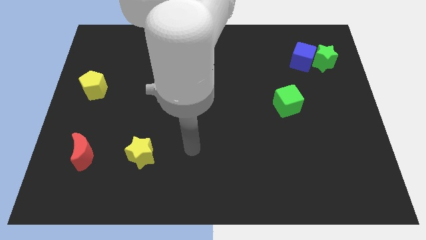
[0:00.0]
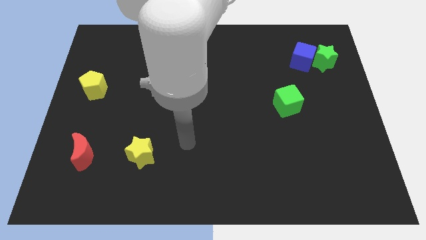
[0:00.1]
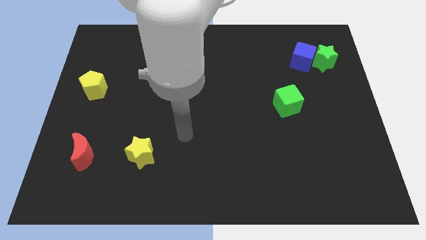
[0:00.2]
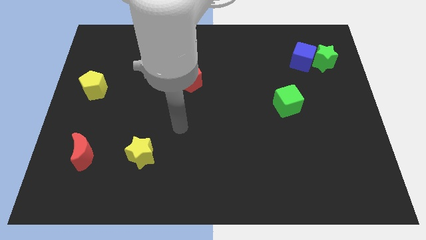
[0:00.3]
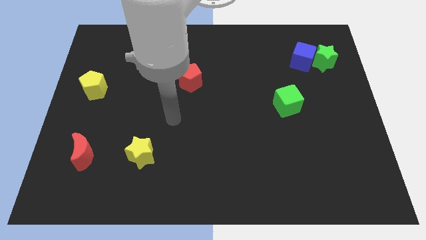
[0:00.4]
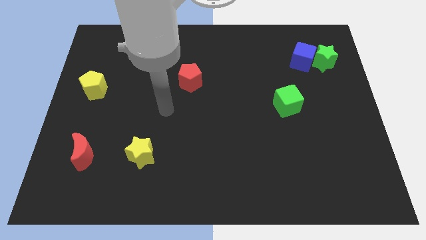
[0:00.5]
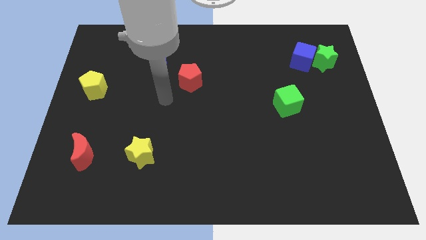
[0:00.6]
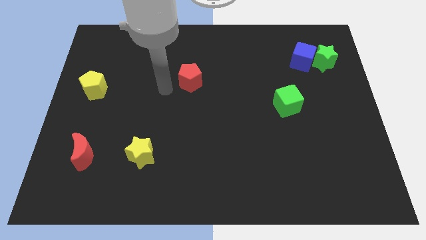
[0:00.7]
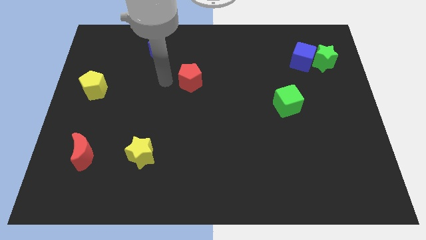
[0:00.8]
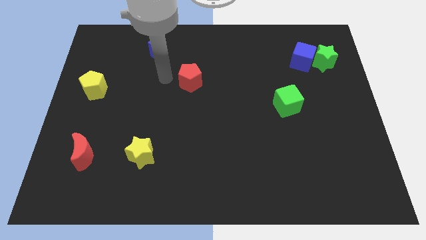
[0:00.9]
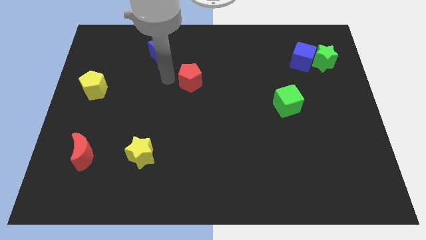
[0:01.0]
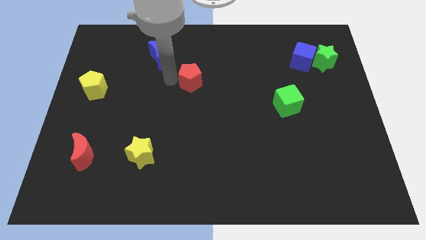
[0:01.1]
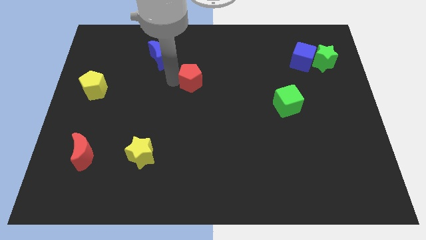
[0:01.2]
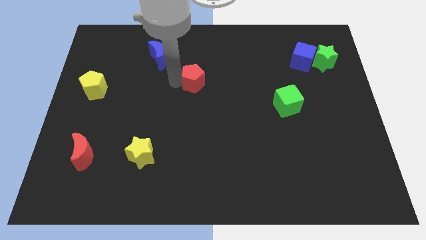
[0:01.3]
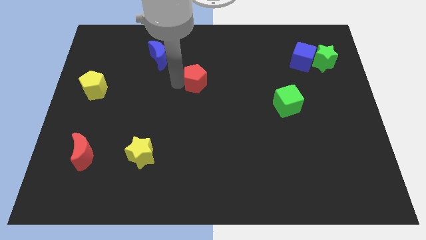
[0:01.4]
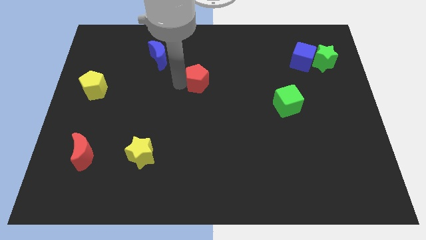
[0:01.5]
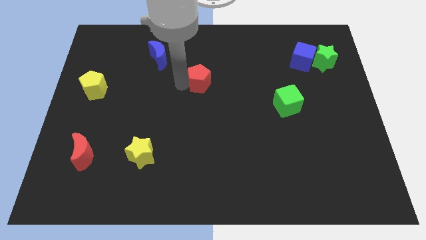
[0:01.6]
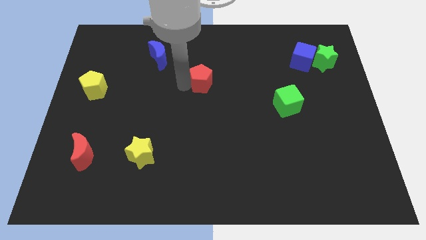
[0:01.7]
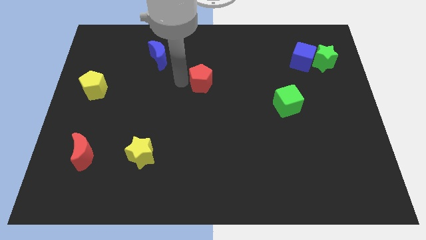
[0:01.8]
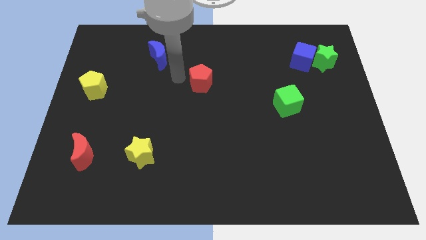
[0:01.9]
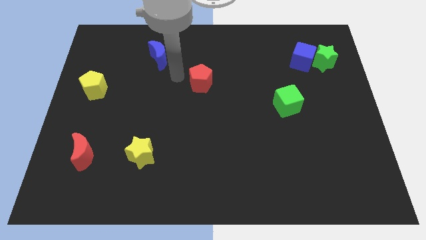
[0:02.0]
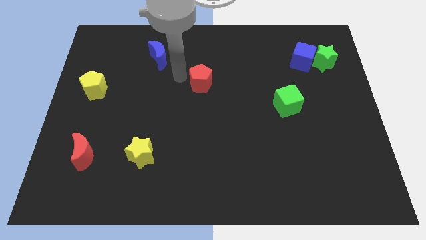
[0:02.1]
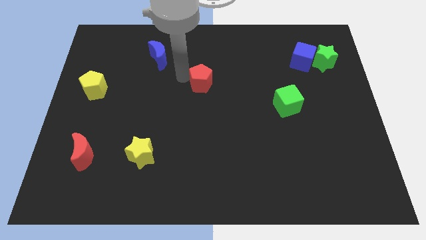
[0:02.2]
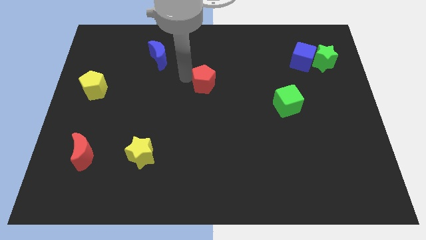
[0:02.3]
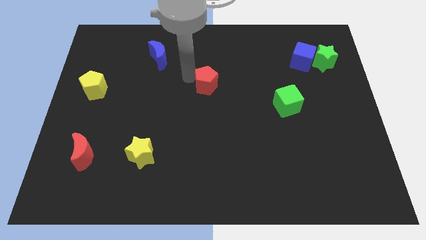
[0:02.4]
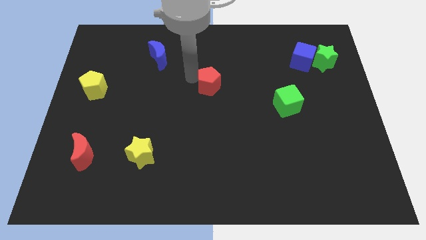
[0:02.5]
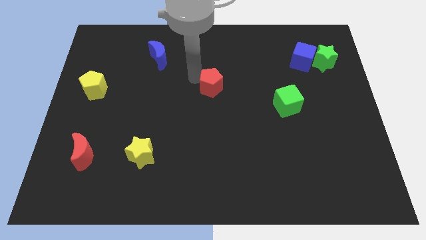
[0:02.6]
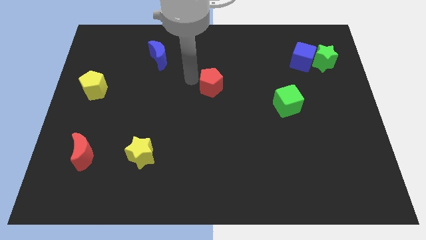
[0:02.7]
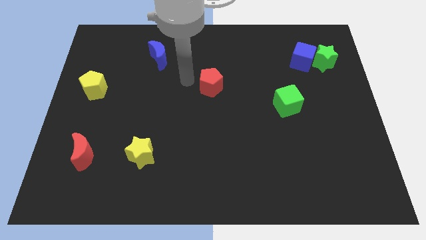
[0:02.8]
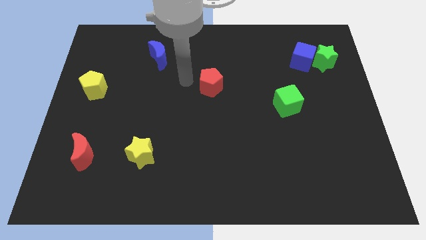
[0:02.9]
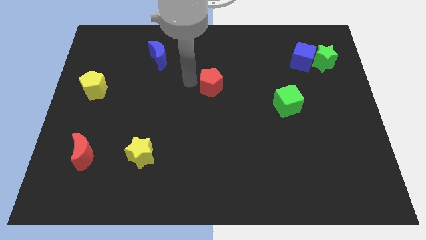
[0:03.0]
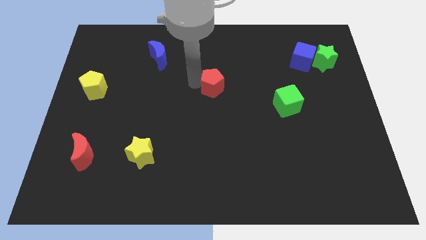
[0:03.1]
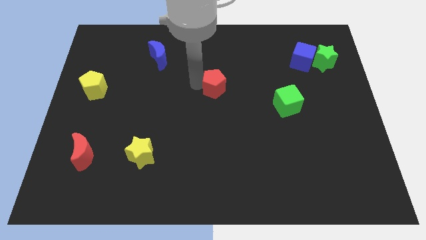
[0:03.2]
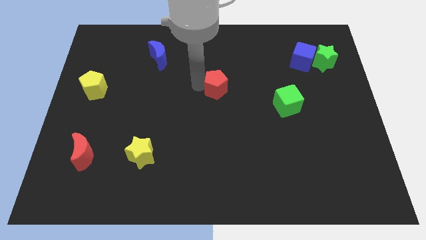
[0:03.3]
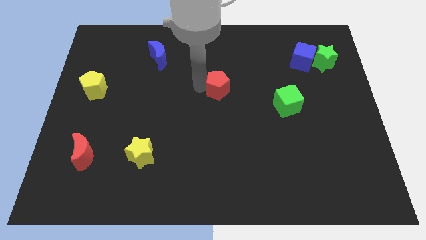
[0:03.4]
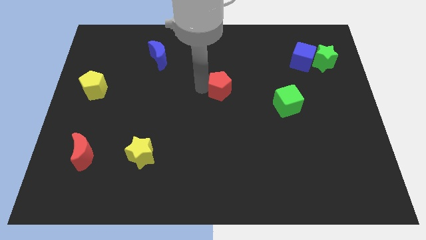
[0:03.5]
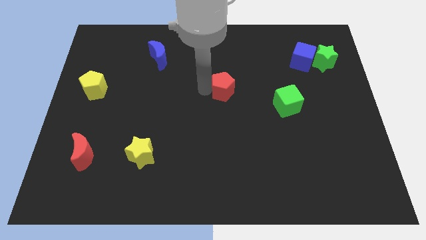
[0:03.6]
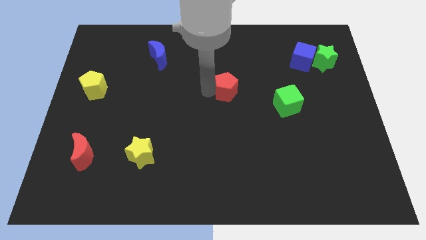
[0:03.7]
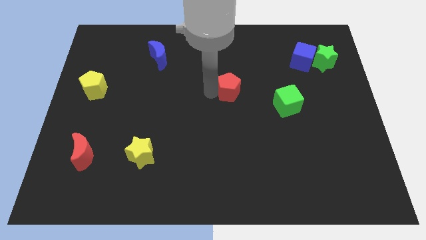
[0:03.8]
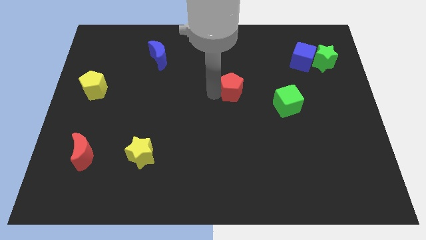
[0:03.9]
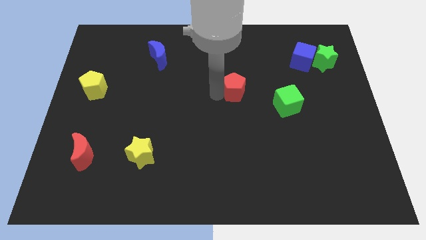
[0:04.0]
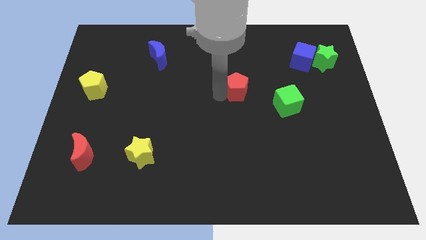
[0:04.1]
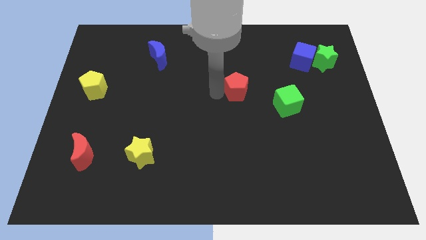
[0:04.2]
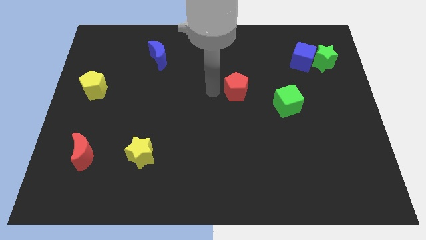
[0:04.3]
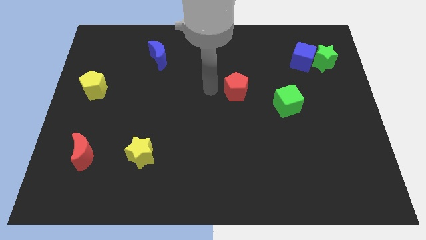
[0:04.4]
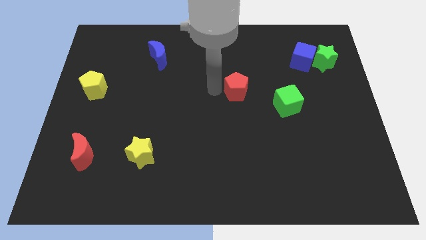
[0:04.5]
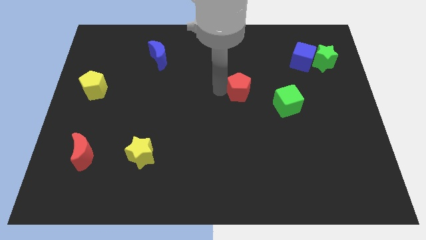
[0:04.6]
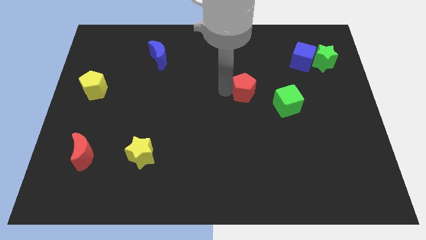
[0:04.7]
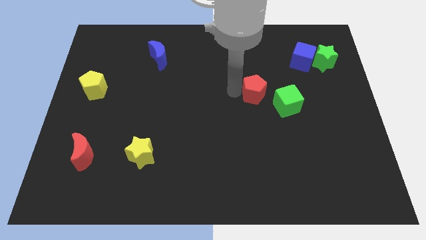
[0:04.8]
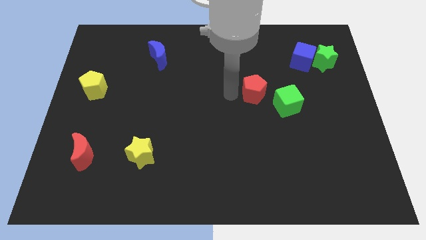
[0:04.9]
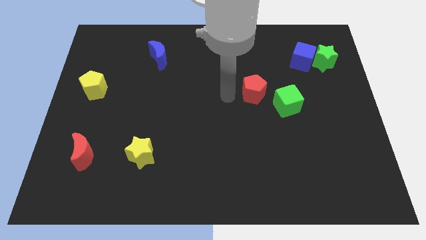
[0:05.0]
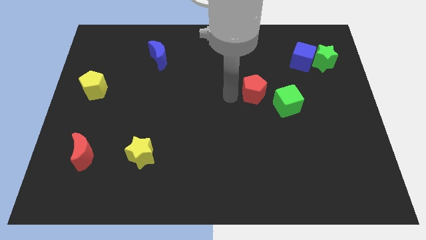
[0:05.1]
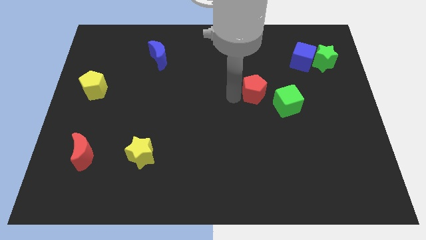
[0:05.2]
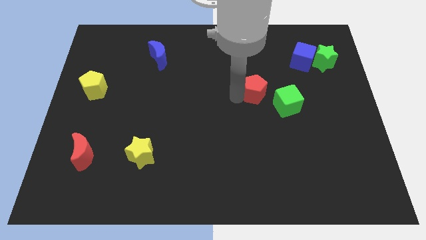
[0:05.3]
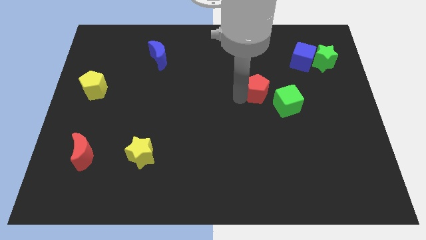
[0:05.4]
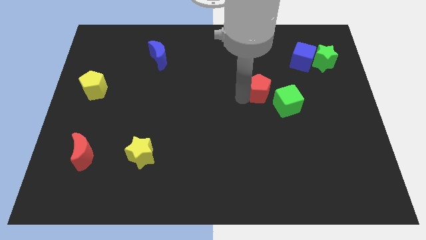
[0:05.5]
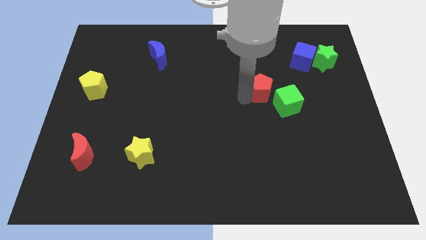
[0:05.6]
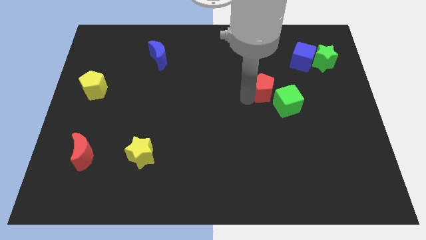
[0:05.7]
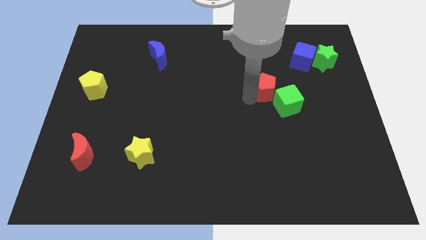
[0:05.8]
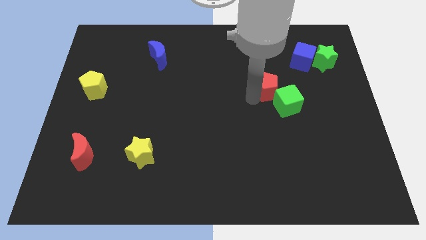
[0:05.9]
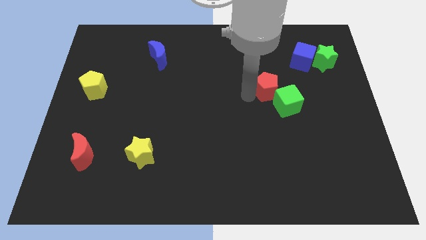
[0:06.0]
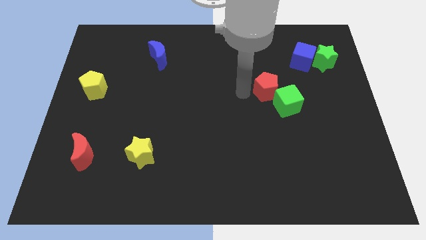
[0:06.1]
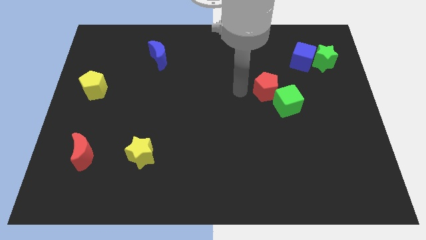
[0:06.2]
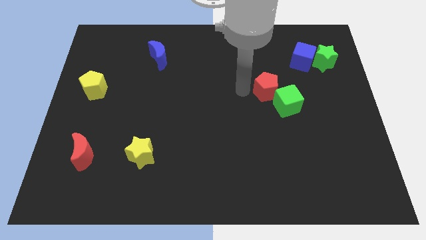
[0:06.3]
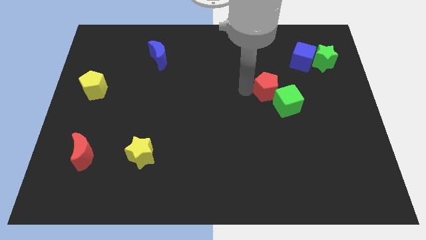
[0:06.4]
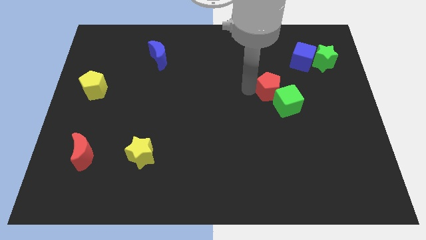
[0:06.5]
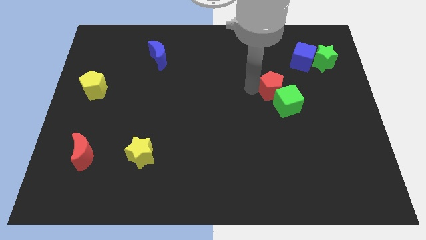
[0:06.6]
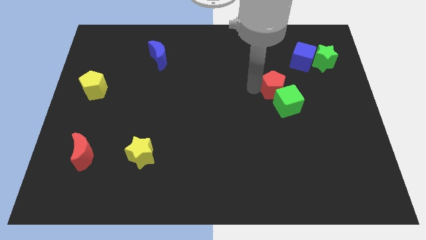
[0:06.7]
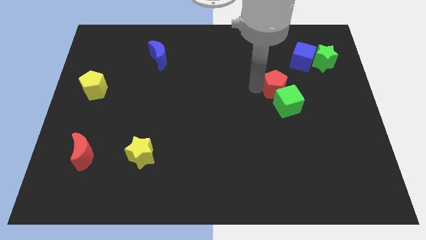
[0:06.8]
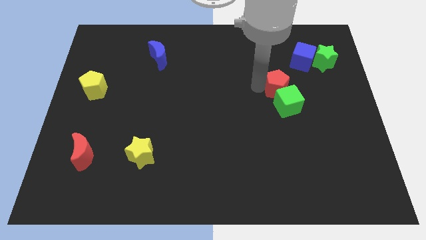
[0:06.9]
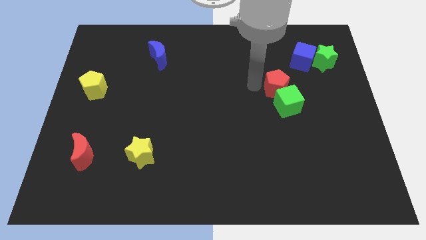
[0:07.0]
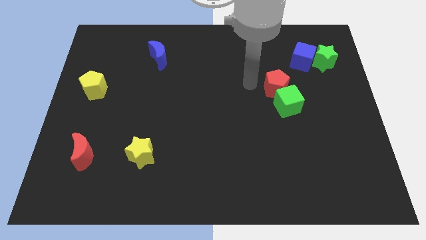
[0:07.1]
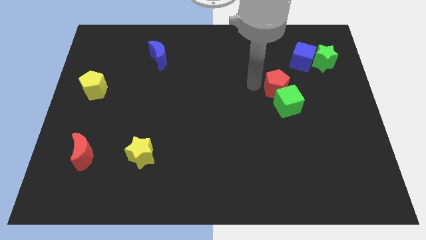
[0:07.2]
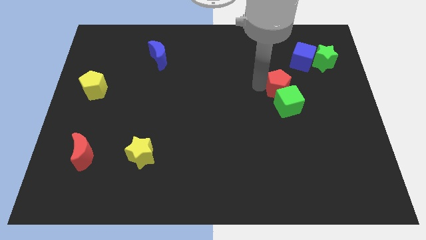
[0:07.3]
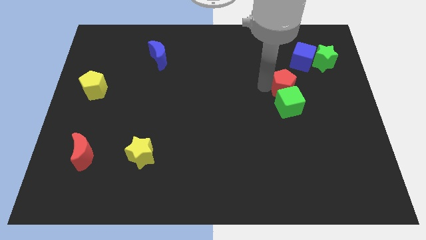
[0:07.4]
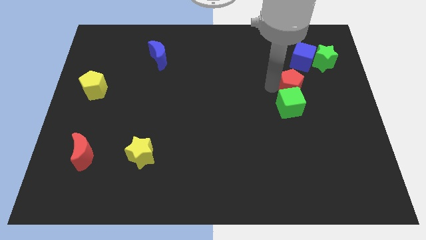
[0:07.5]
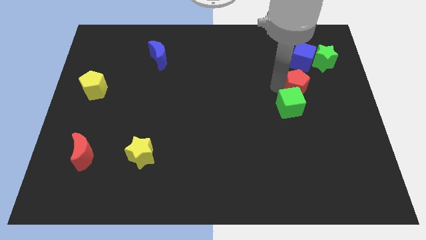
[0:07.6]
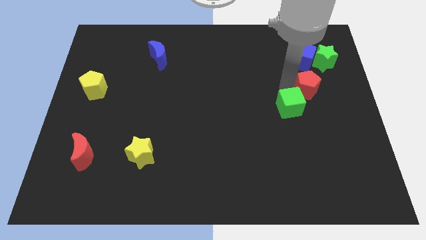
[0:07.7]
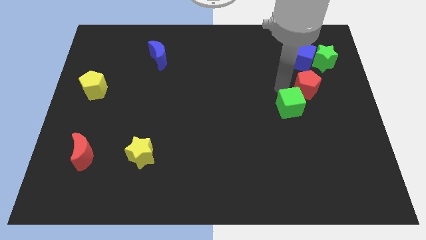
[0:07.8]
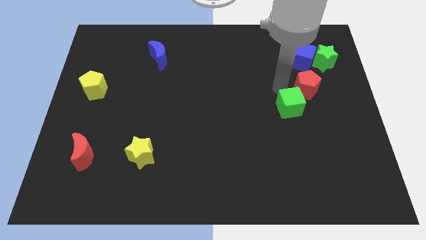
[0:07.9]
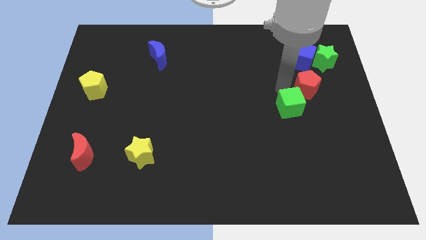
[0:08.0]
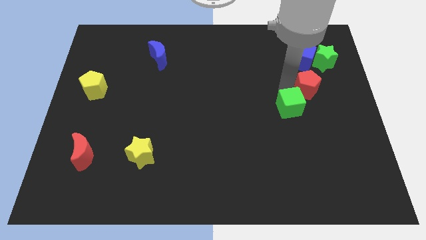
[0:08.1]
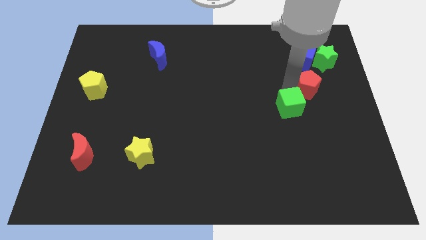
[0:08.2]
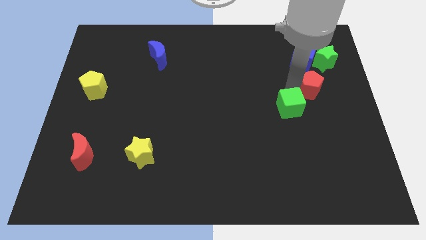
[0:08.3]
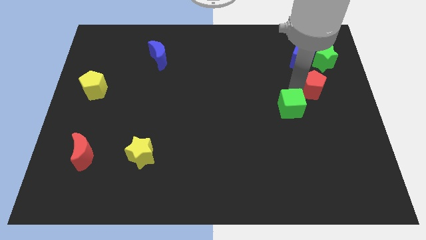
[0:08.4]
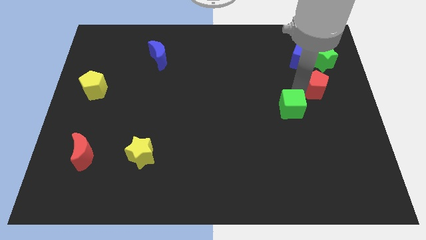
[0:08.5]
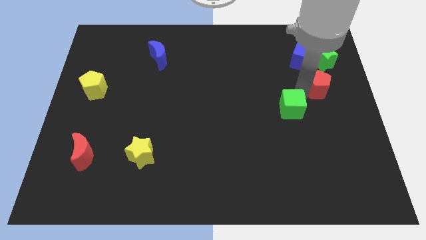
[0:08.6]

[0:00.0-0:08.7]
move the red pentagon to the right side
